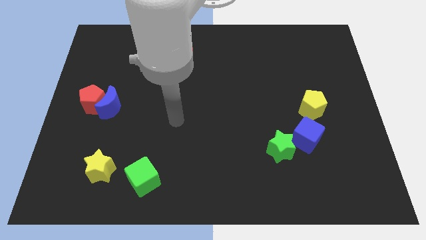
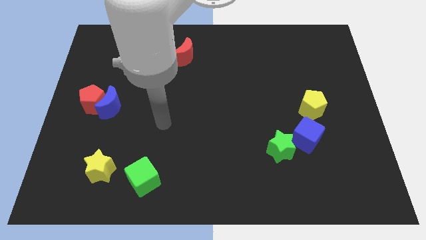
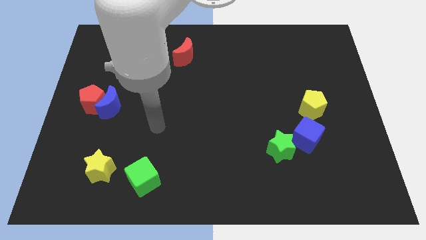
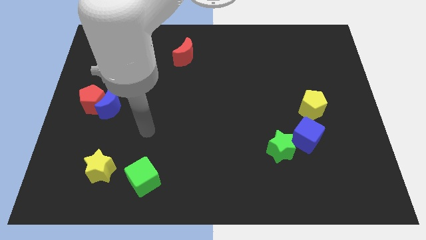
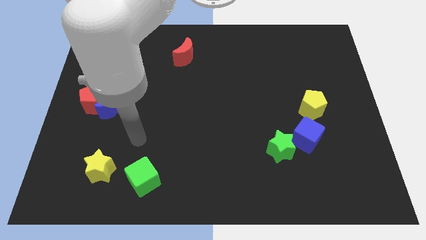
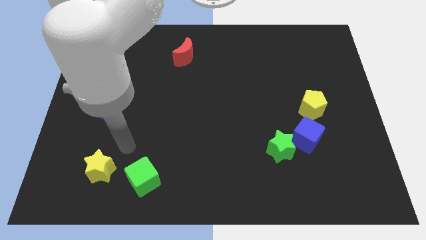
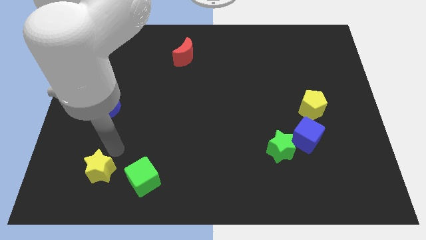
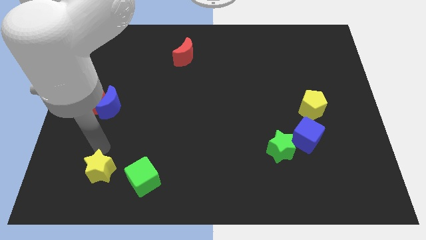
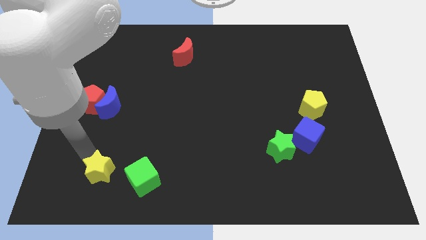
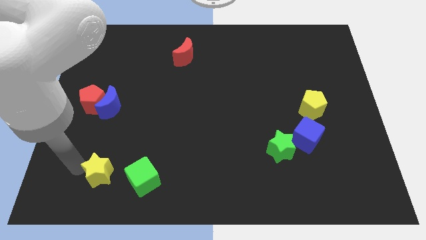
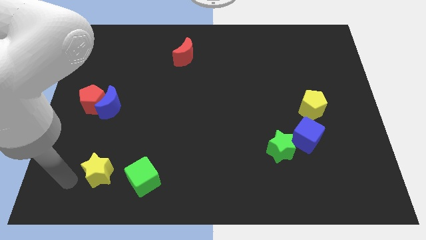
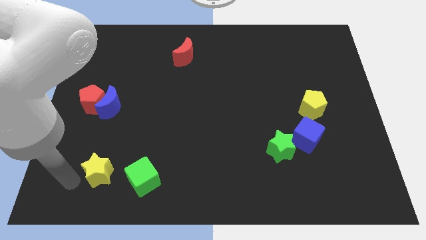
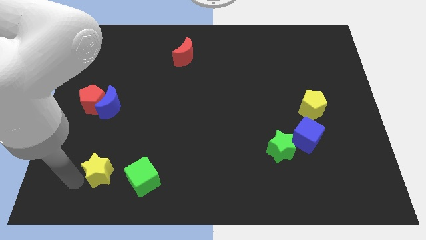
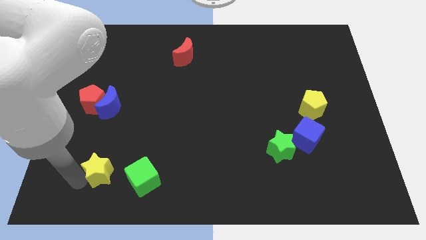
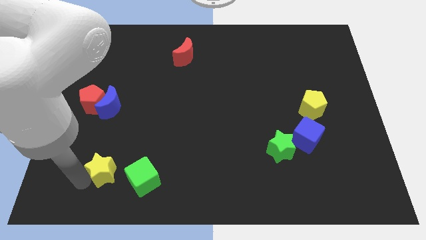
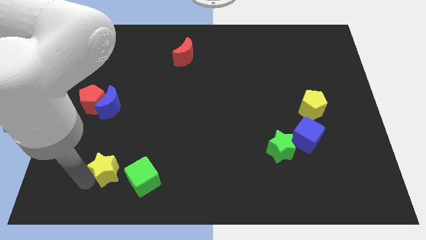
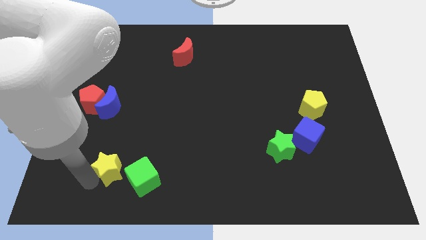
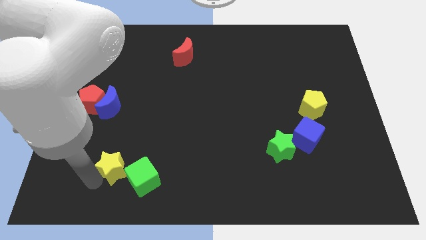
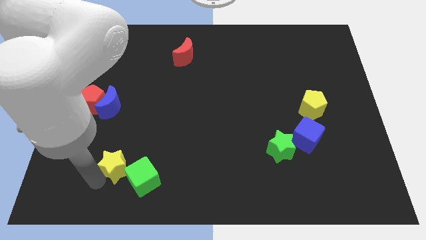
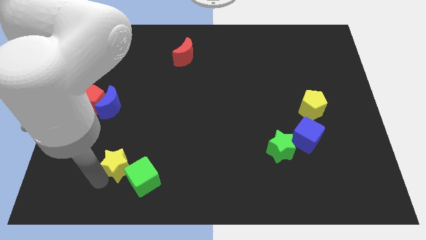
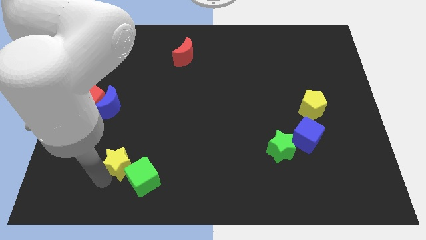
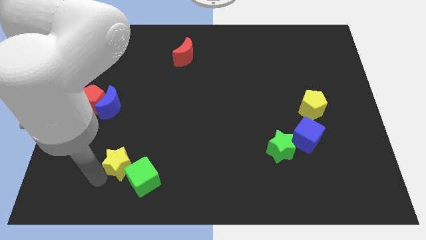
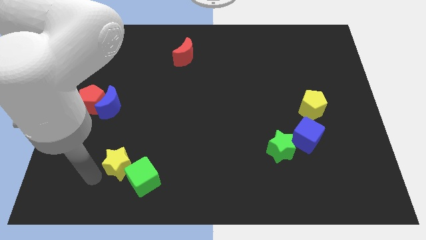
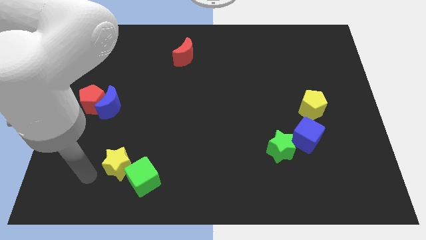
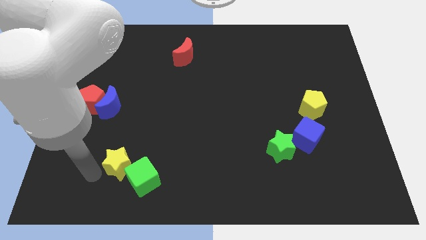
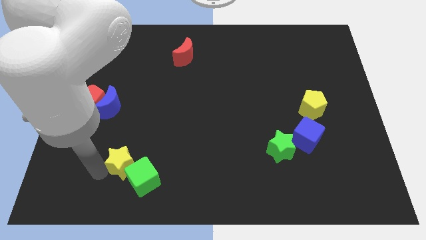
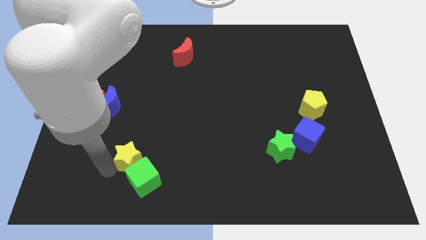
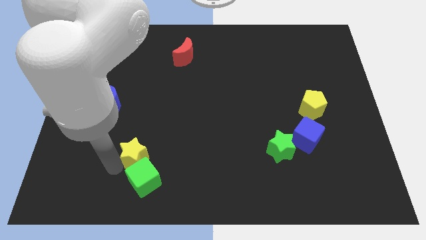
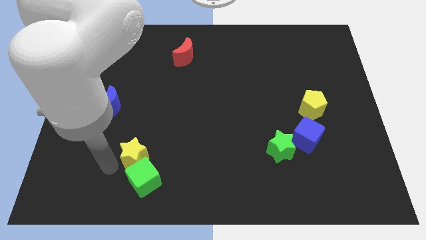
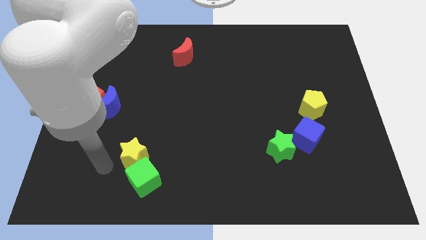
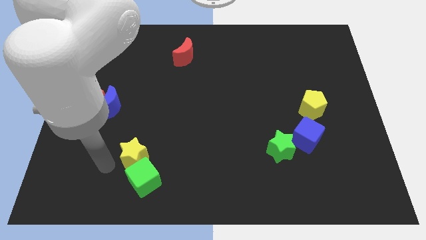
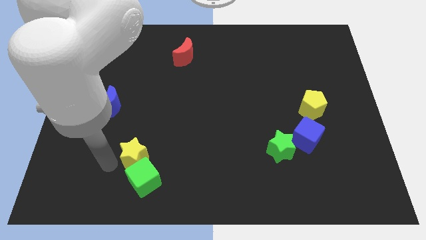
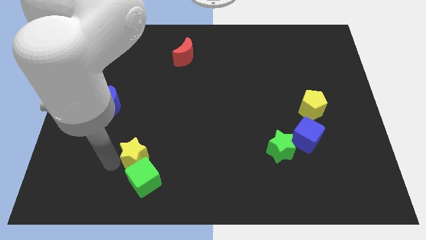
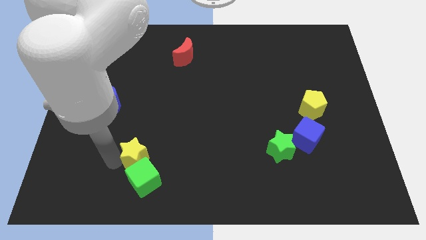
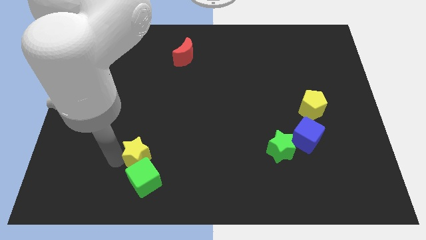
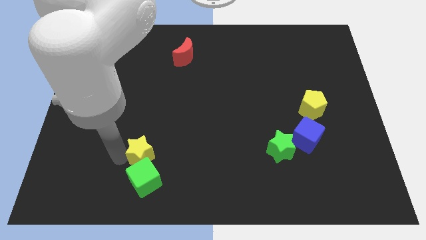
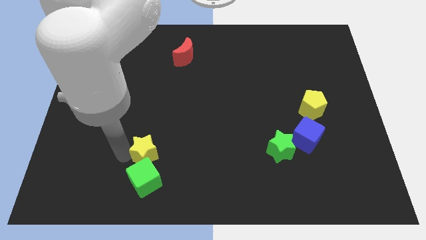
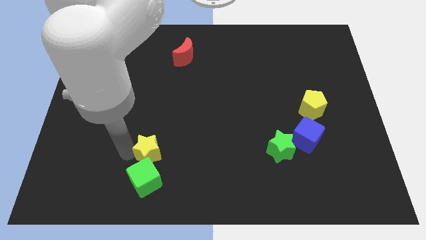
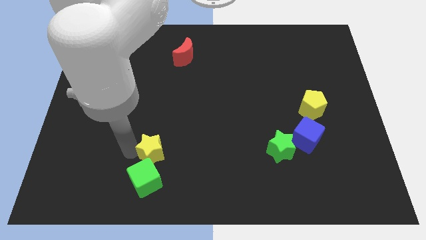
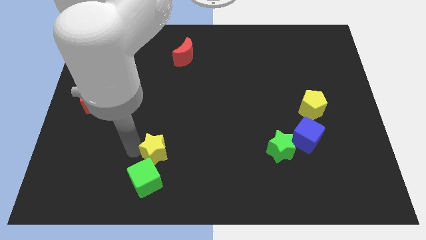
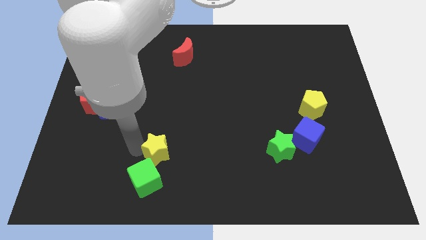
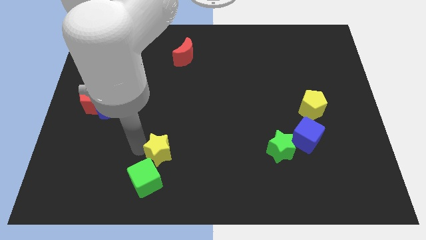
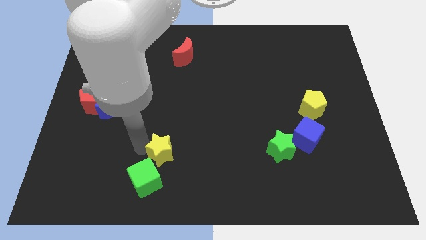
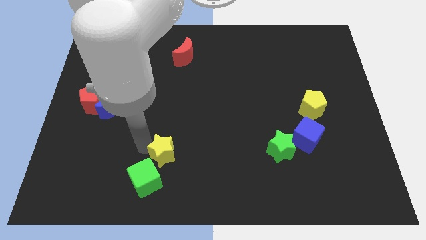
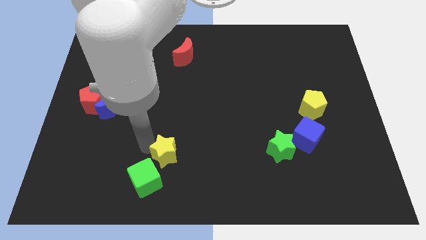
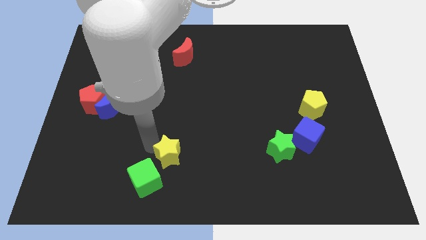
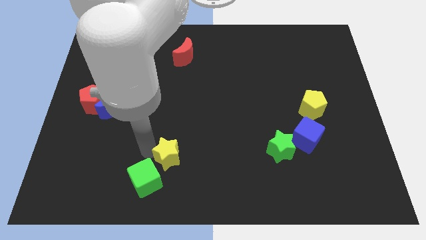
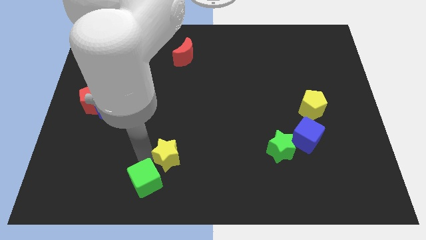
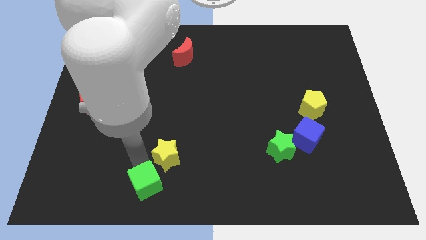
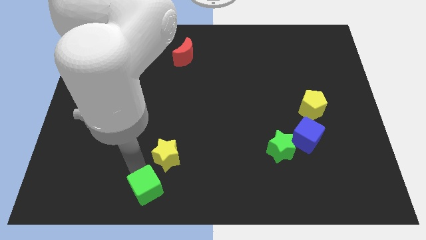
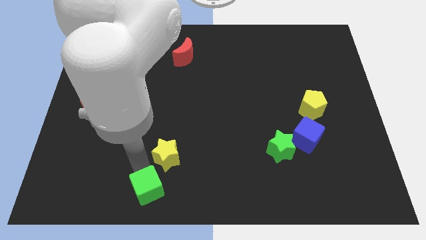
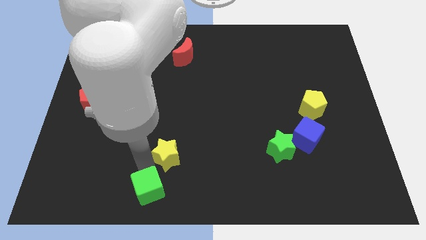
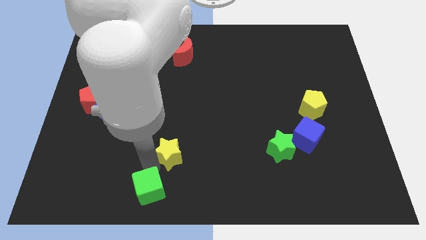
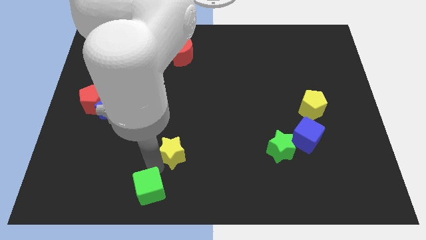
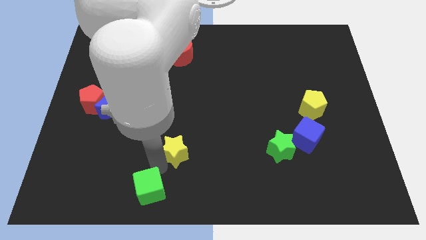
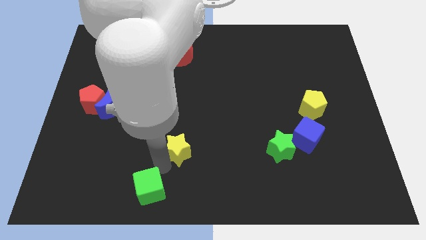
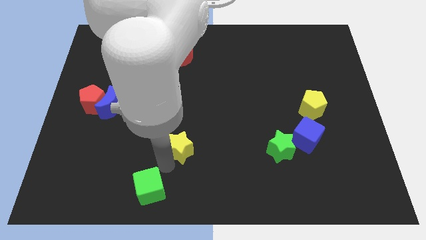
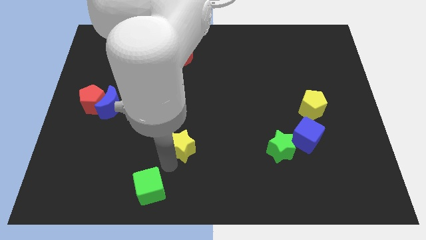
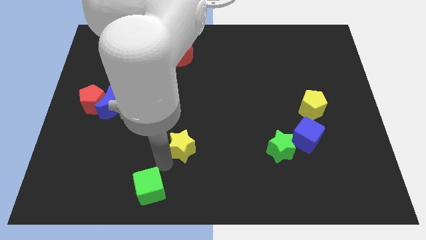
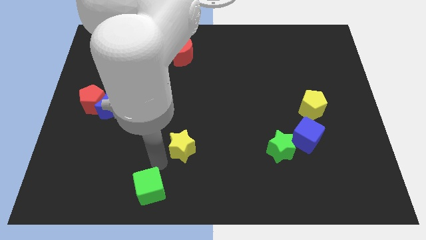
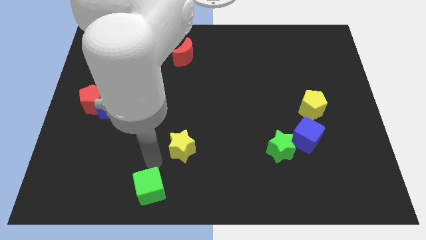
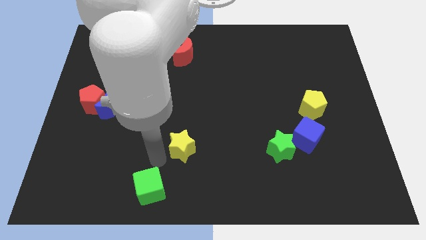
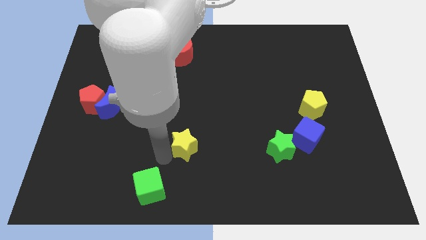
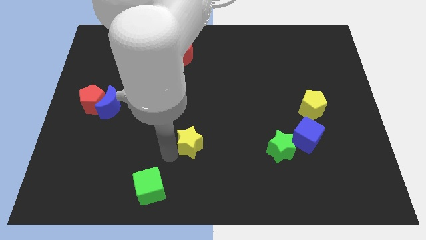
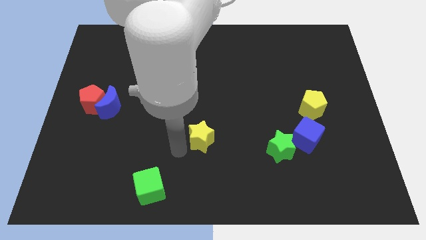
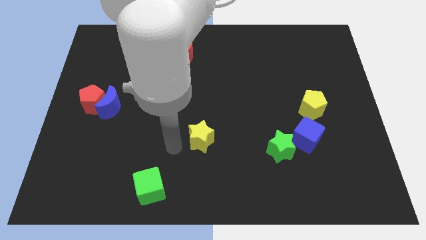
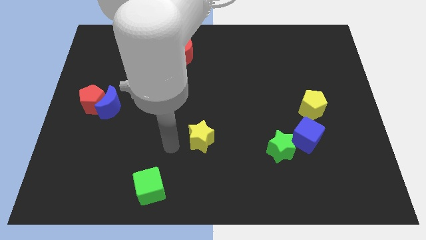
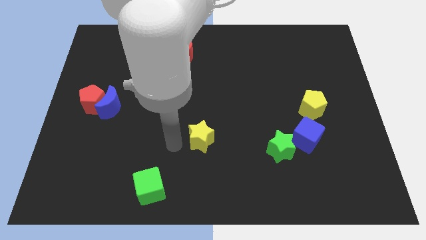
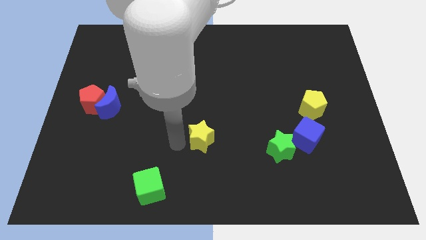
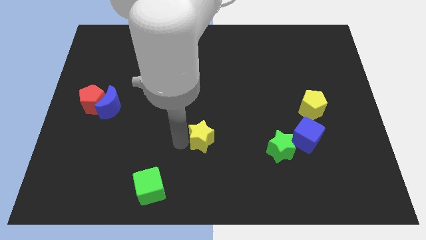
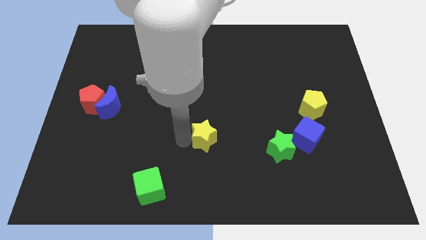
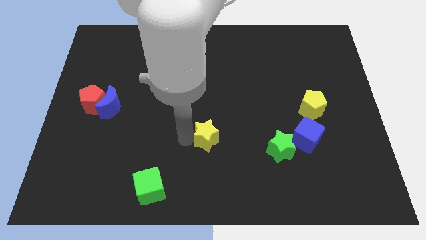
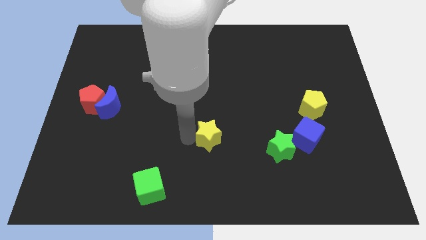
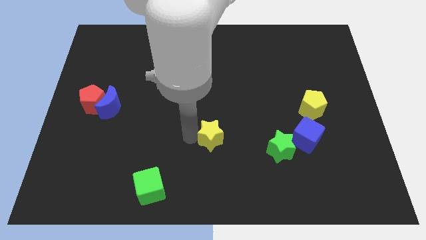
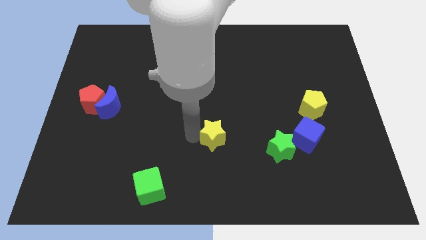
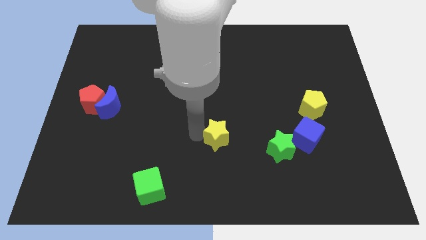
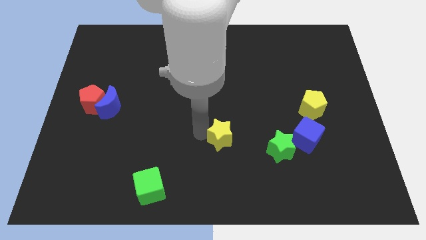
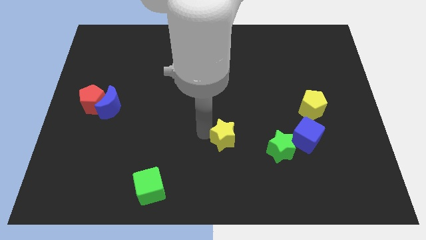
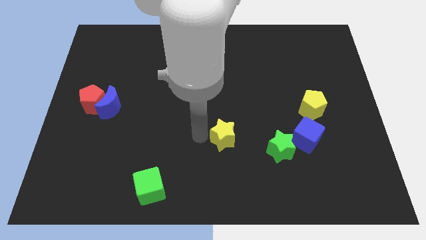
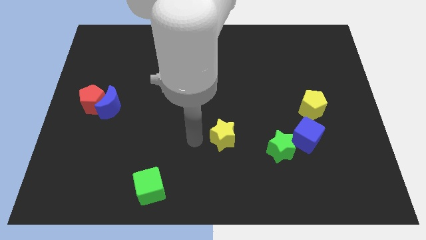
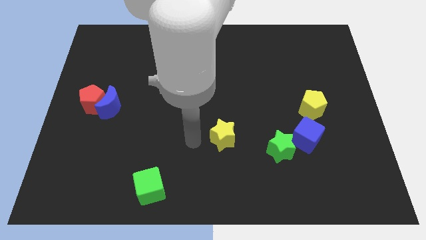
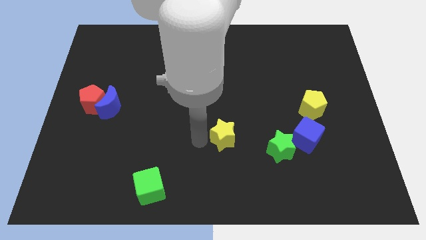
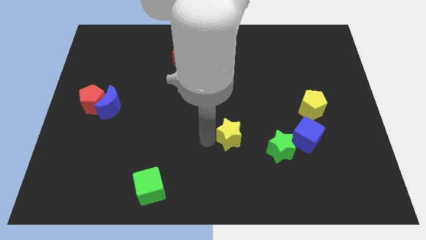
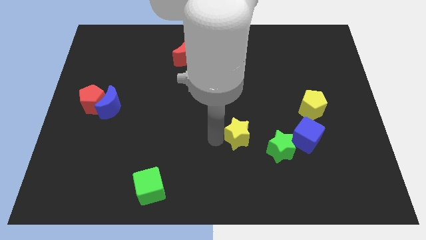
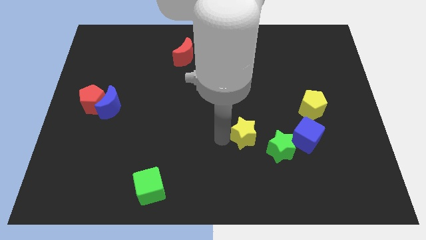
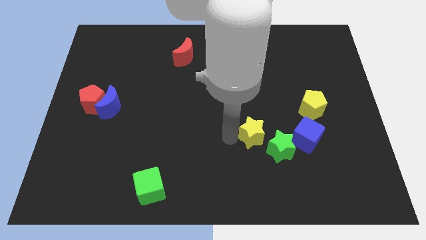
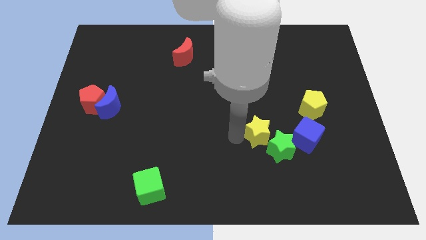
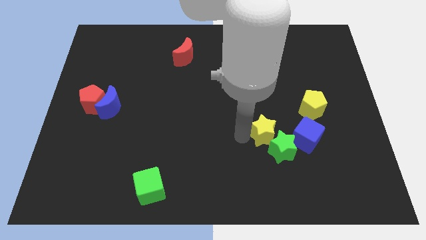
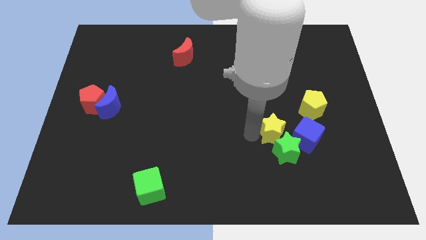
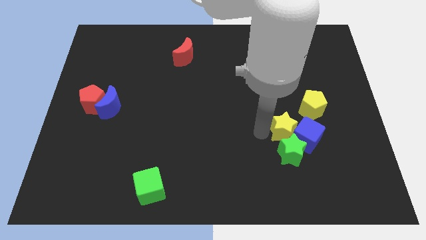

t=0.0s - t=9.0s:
slide the yellow star next to the blue cube
